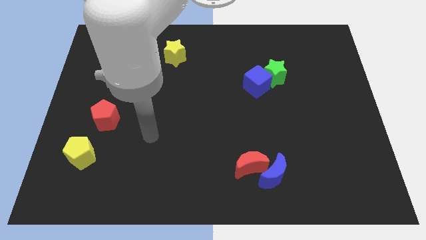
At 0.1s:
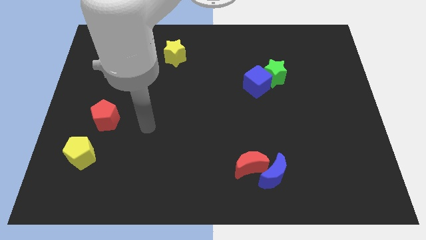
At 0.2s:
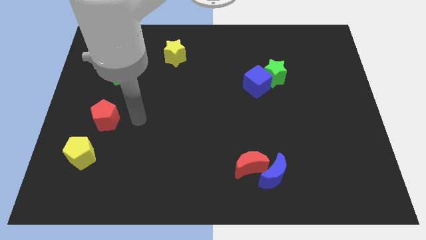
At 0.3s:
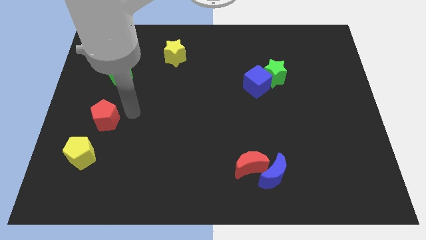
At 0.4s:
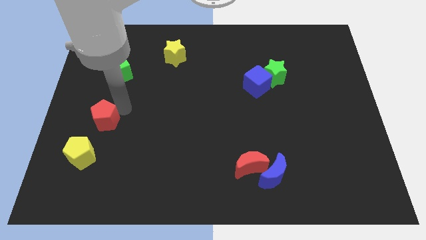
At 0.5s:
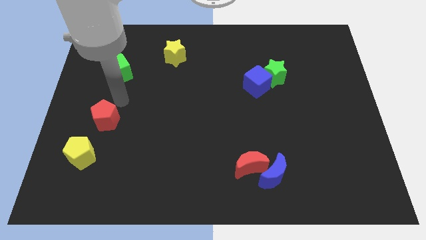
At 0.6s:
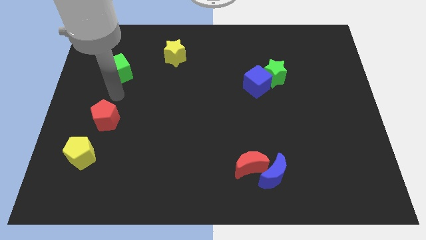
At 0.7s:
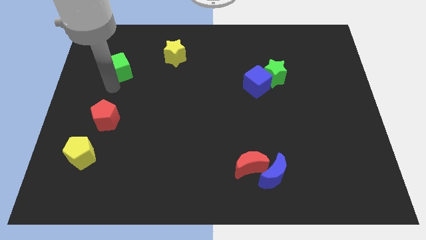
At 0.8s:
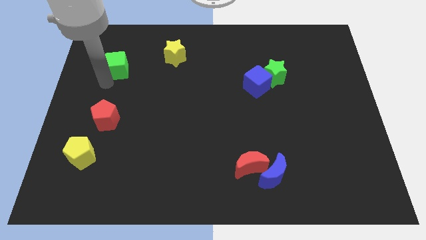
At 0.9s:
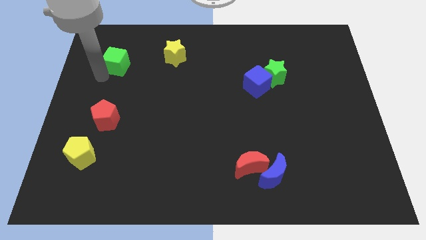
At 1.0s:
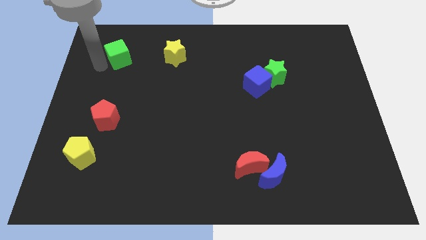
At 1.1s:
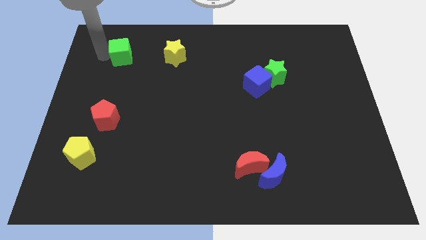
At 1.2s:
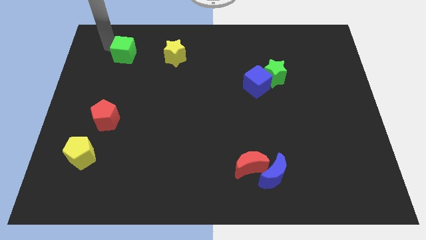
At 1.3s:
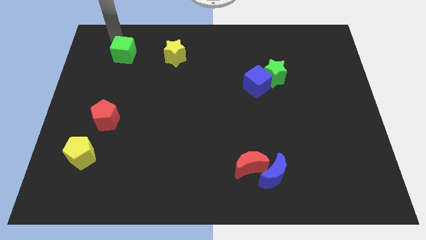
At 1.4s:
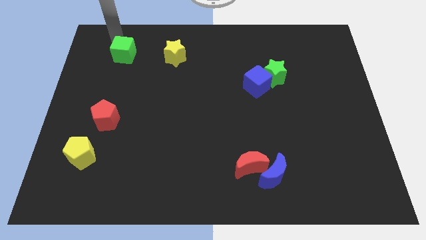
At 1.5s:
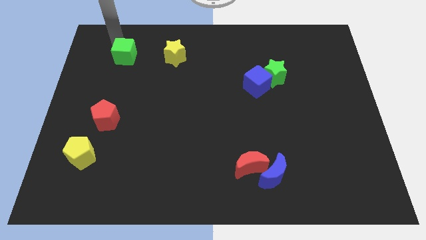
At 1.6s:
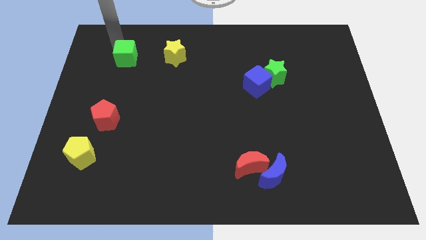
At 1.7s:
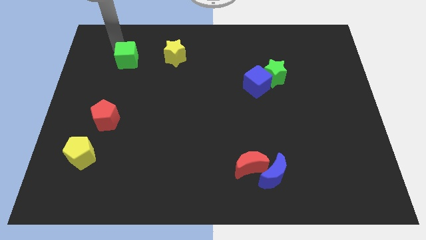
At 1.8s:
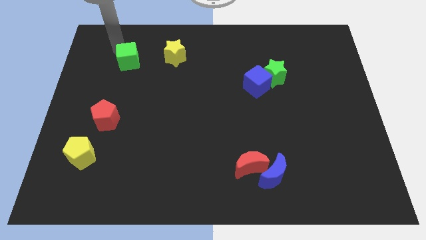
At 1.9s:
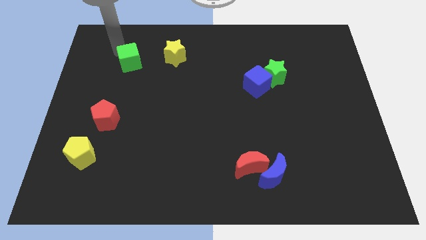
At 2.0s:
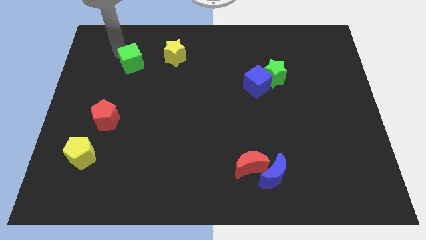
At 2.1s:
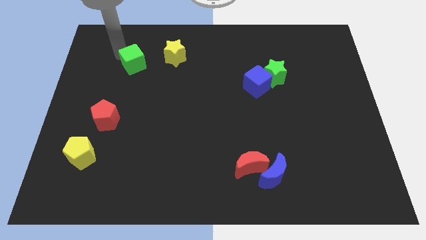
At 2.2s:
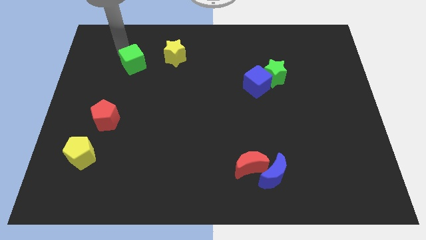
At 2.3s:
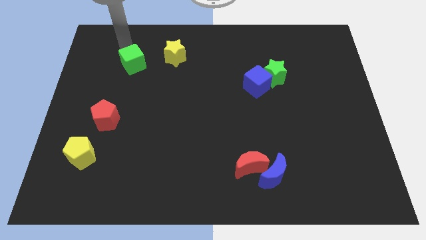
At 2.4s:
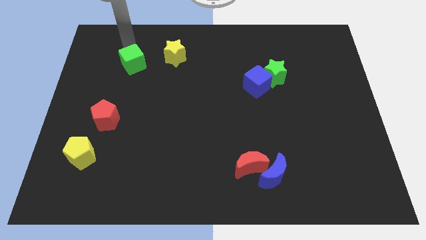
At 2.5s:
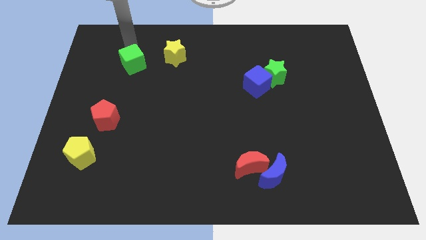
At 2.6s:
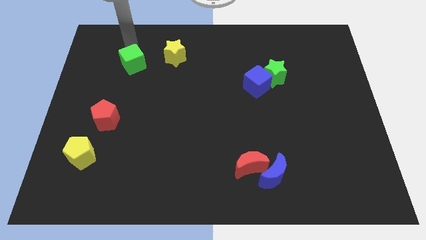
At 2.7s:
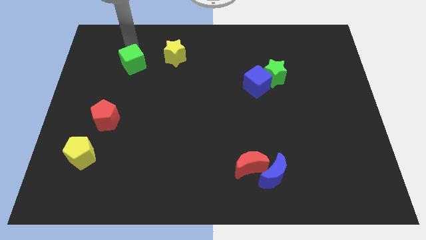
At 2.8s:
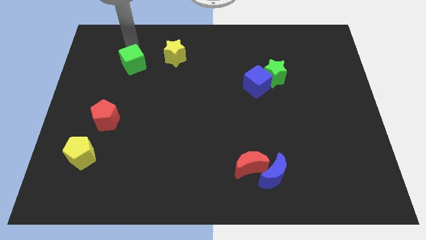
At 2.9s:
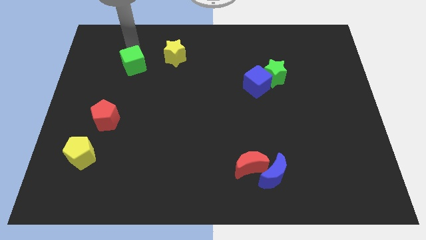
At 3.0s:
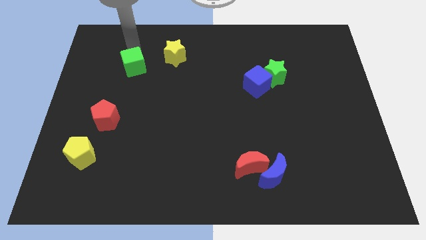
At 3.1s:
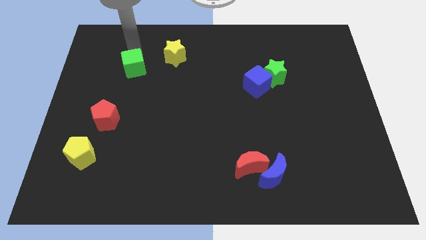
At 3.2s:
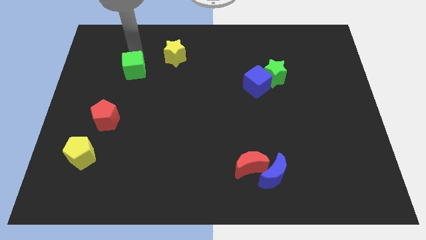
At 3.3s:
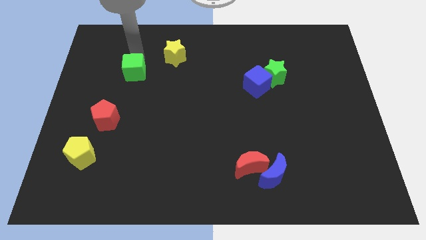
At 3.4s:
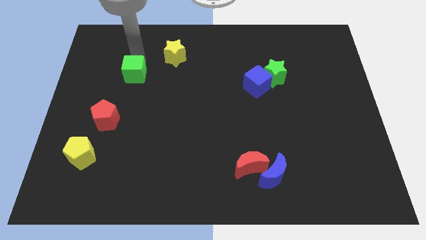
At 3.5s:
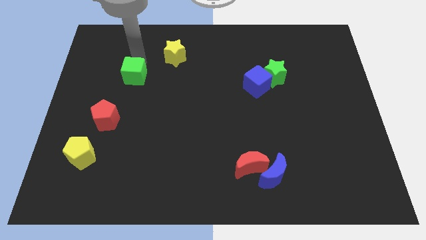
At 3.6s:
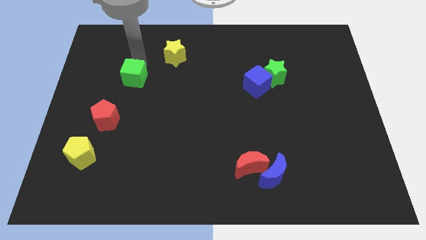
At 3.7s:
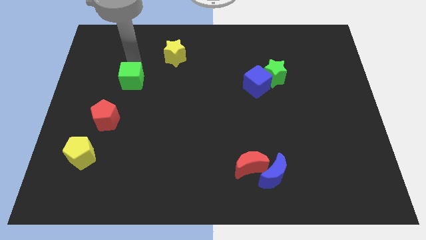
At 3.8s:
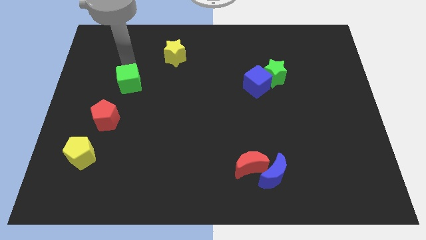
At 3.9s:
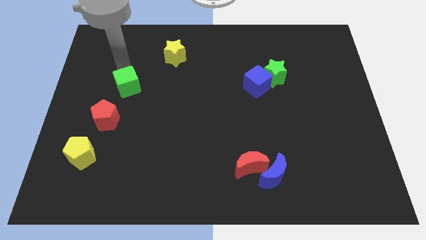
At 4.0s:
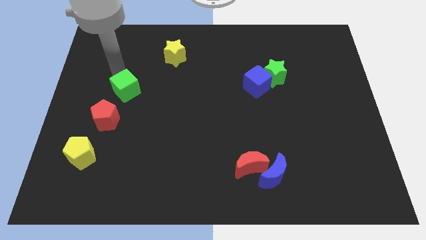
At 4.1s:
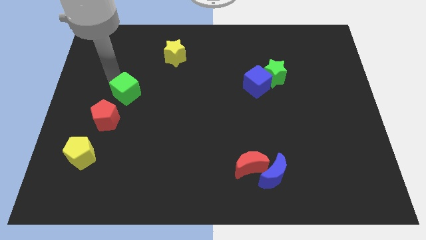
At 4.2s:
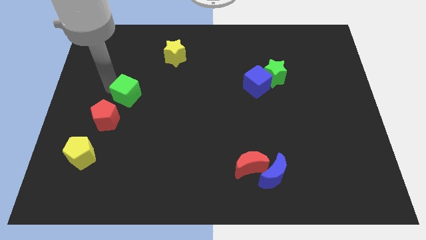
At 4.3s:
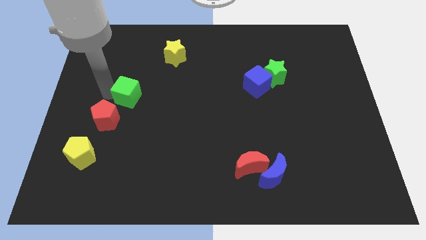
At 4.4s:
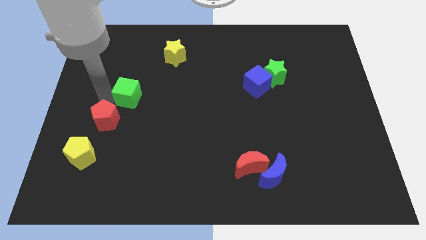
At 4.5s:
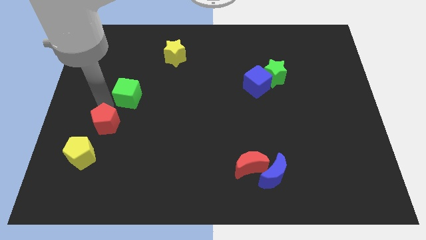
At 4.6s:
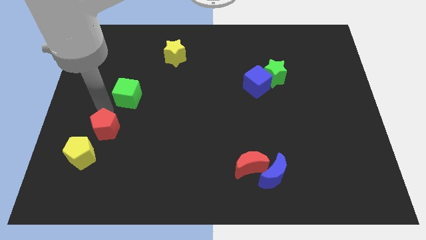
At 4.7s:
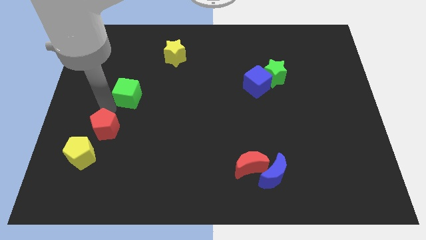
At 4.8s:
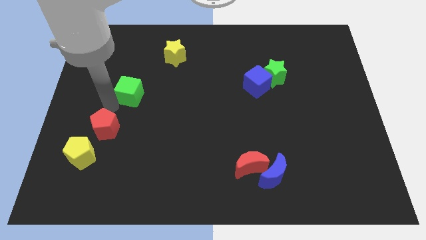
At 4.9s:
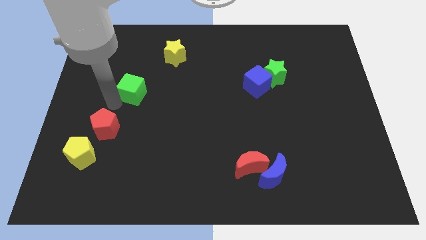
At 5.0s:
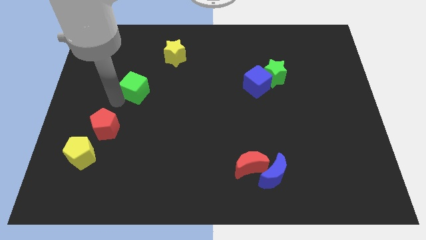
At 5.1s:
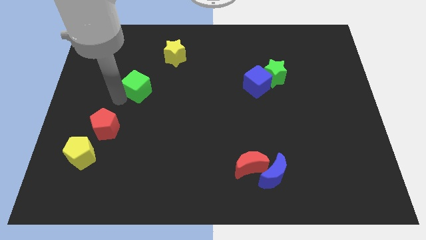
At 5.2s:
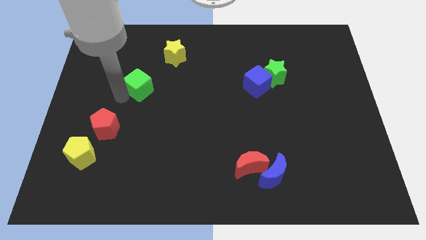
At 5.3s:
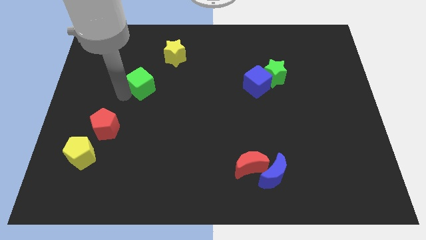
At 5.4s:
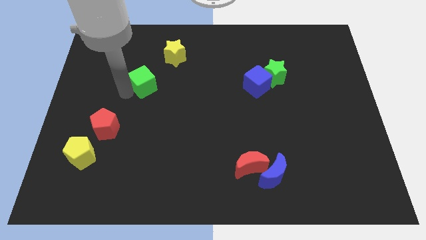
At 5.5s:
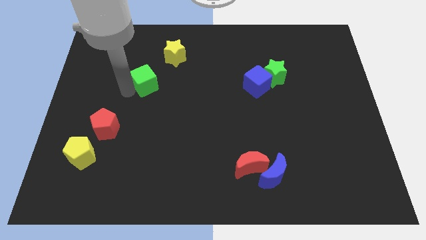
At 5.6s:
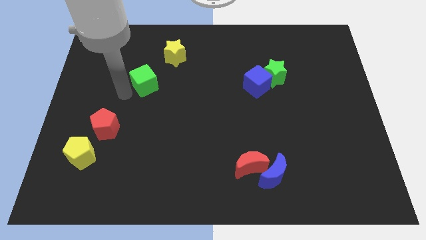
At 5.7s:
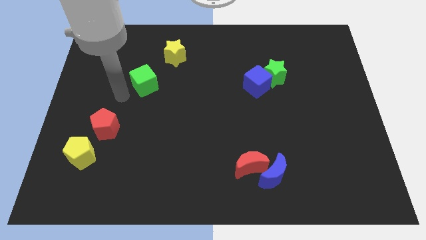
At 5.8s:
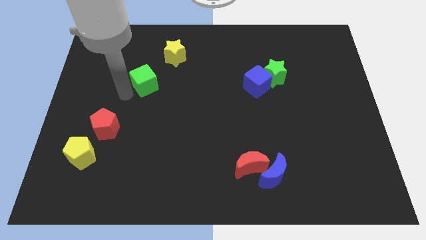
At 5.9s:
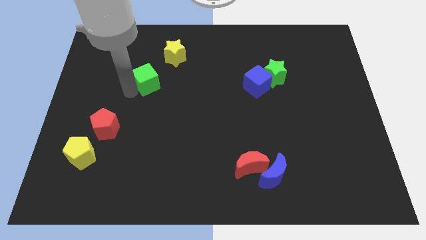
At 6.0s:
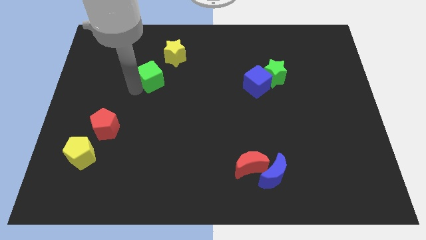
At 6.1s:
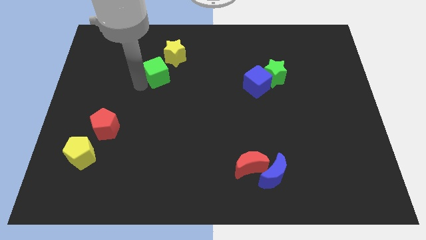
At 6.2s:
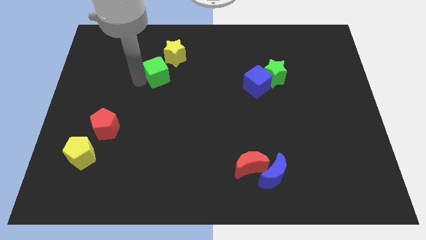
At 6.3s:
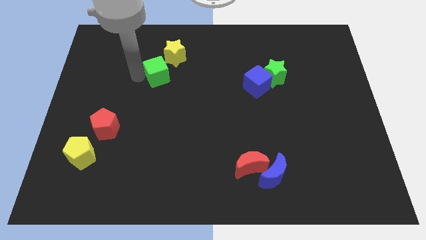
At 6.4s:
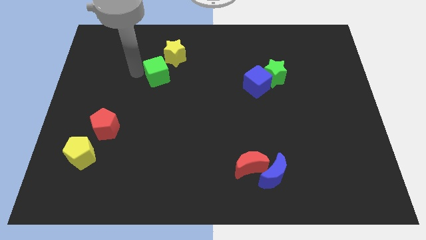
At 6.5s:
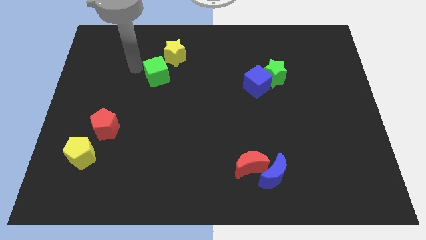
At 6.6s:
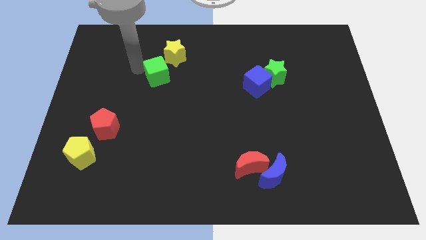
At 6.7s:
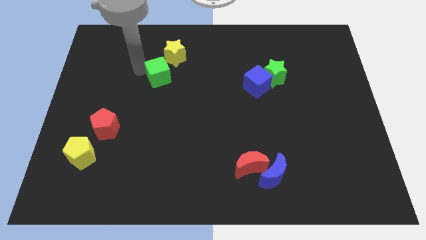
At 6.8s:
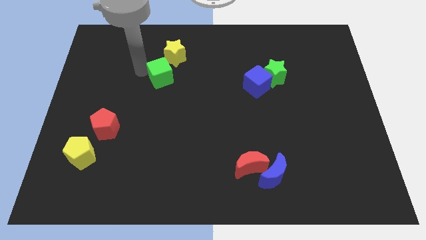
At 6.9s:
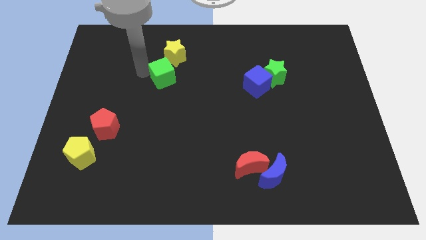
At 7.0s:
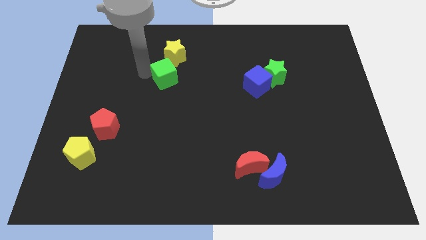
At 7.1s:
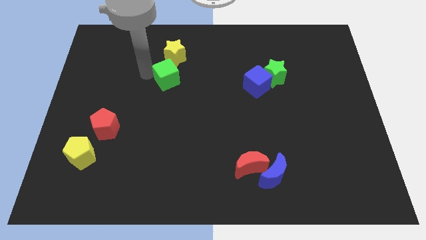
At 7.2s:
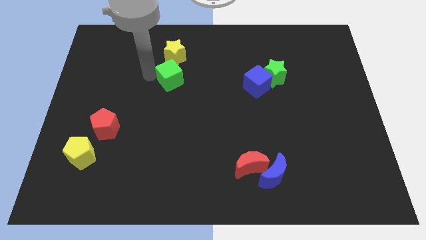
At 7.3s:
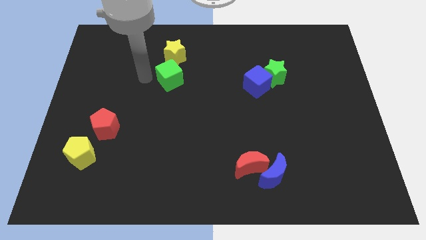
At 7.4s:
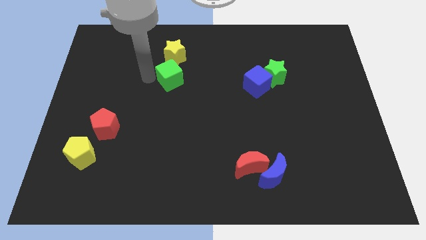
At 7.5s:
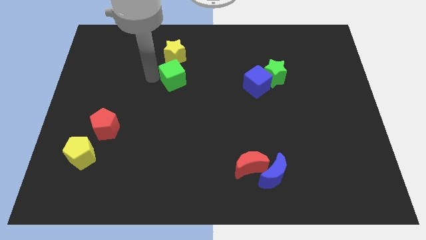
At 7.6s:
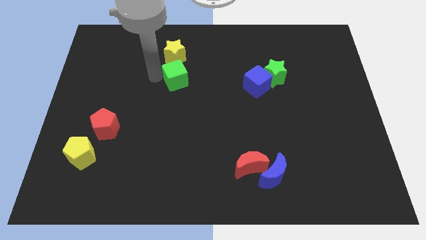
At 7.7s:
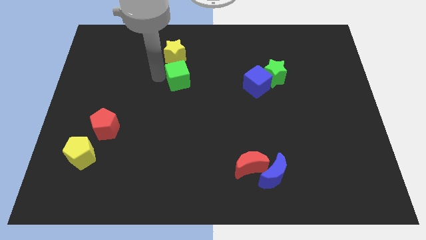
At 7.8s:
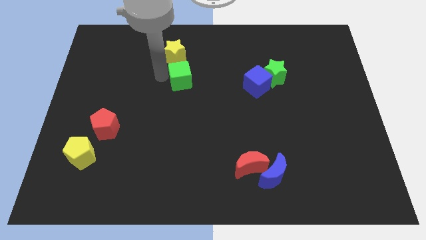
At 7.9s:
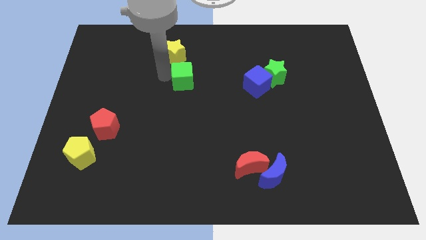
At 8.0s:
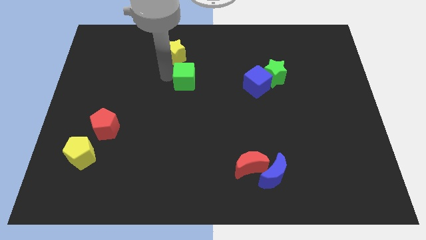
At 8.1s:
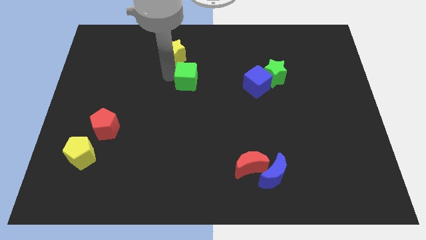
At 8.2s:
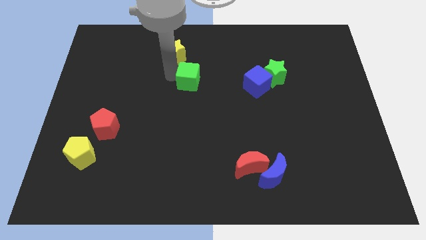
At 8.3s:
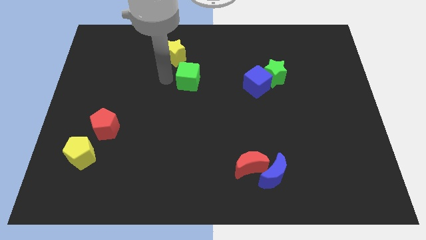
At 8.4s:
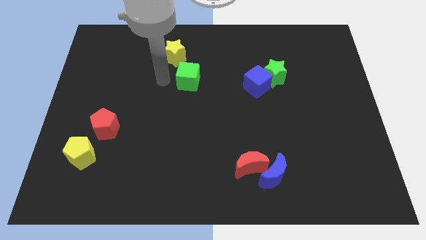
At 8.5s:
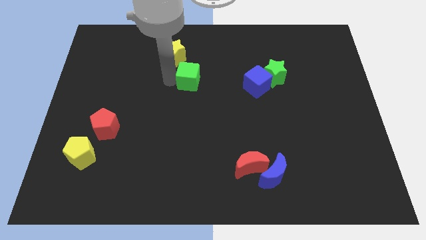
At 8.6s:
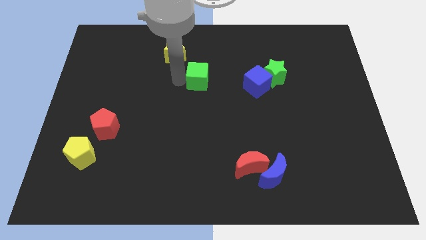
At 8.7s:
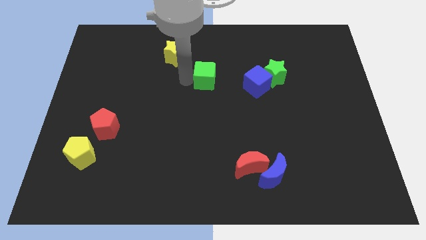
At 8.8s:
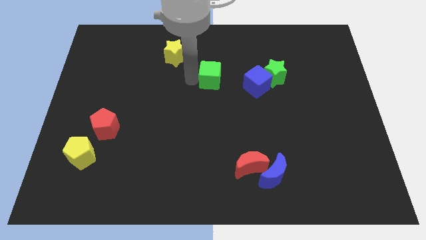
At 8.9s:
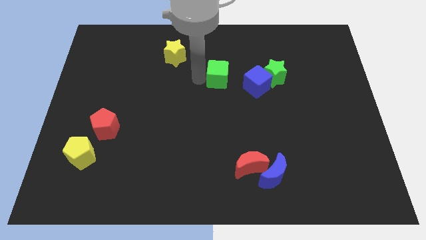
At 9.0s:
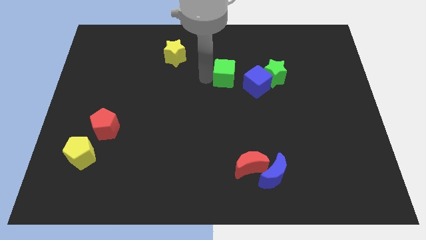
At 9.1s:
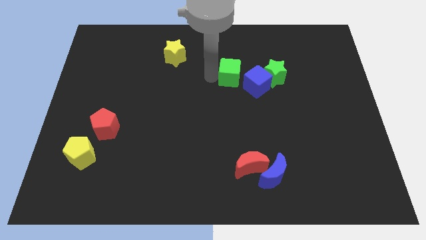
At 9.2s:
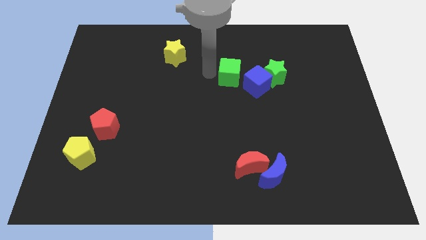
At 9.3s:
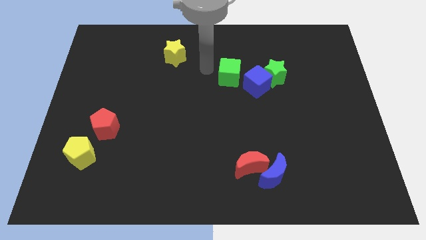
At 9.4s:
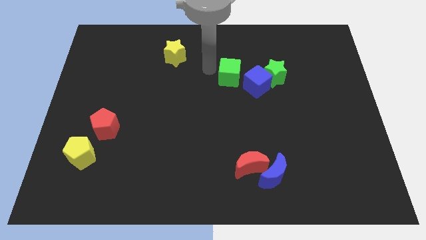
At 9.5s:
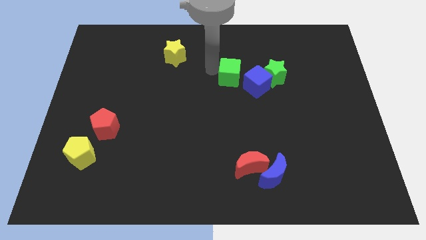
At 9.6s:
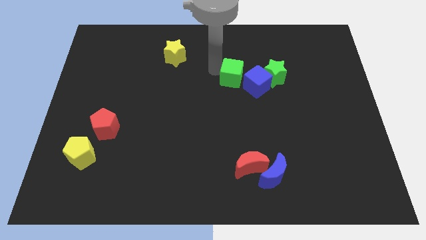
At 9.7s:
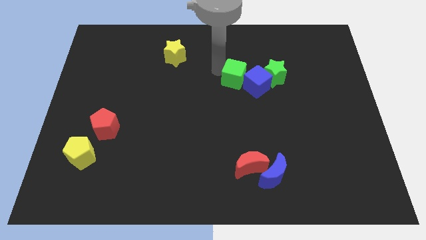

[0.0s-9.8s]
put the green cube next to the blue cube
